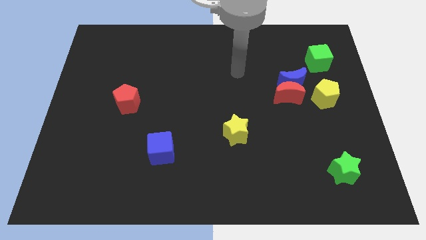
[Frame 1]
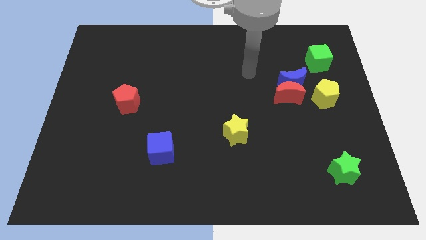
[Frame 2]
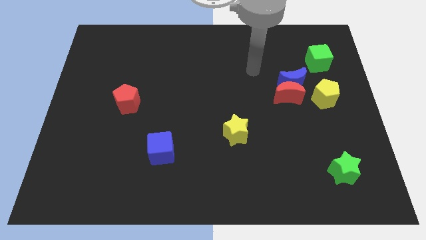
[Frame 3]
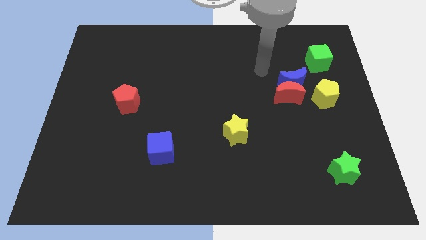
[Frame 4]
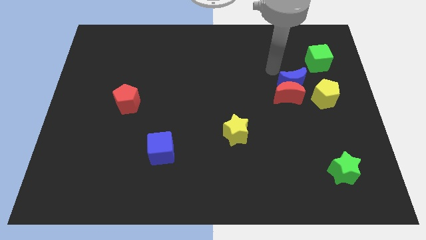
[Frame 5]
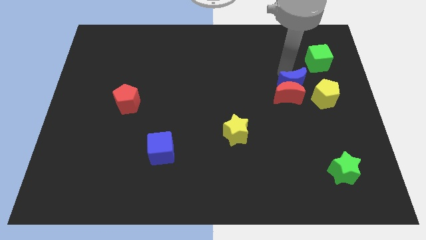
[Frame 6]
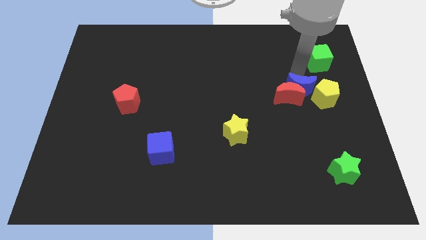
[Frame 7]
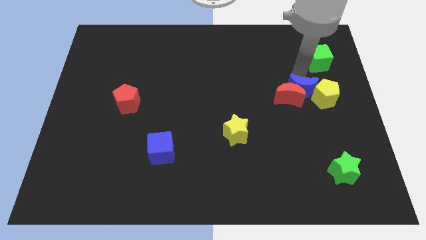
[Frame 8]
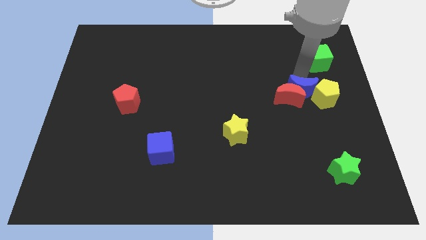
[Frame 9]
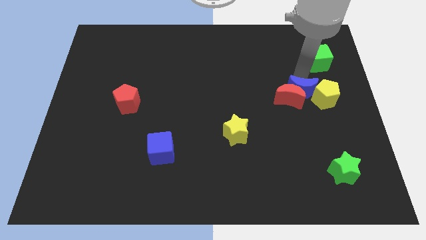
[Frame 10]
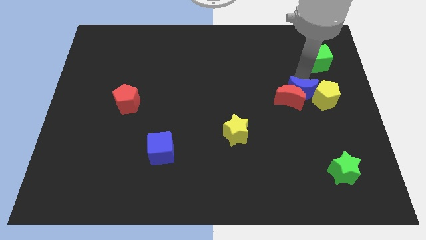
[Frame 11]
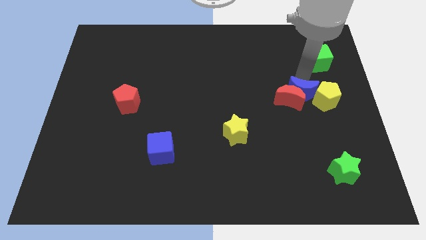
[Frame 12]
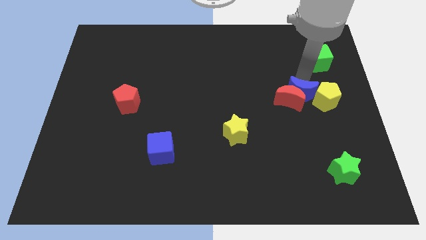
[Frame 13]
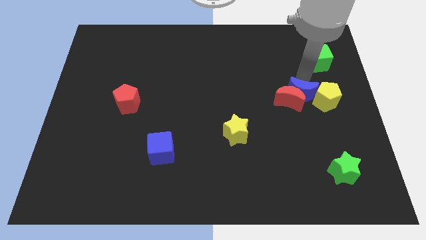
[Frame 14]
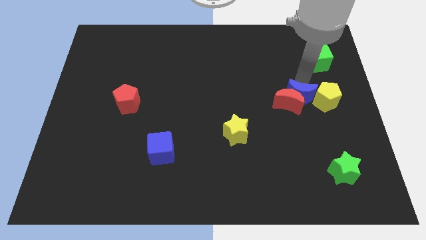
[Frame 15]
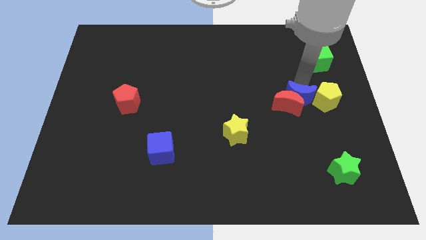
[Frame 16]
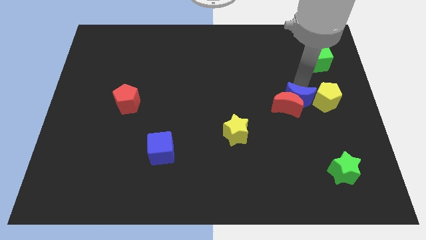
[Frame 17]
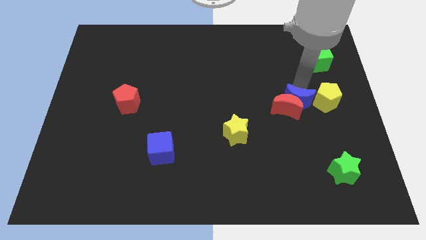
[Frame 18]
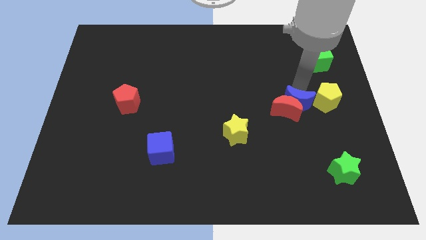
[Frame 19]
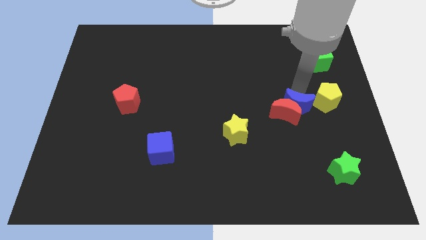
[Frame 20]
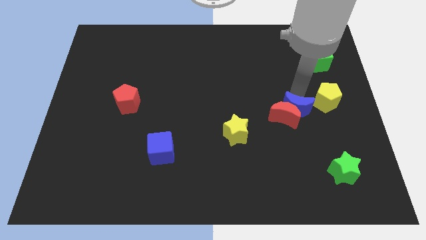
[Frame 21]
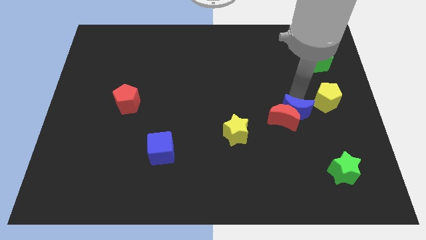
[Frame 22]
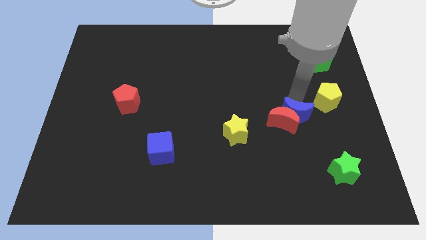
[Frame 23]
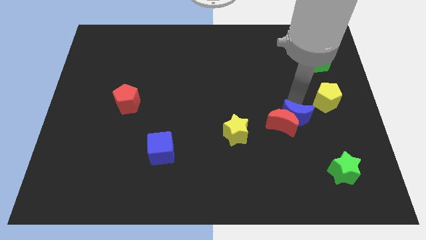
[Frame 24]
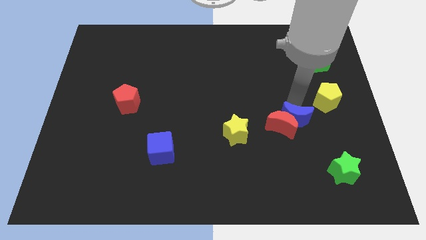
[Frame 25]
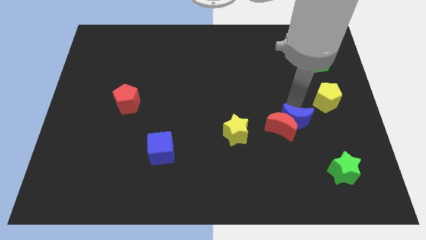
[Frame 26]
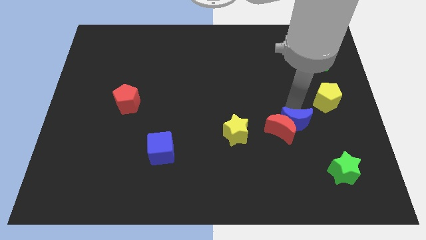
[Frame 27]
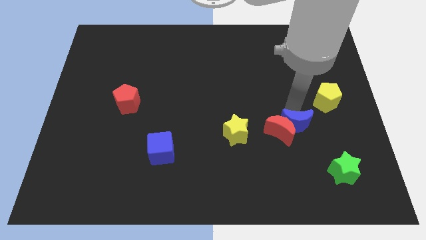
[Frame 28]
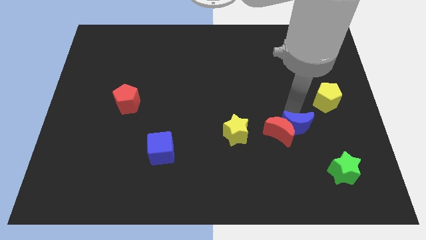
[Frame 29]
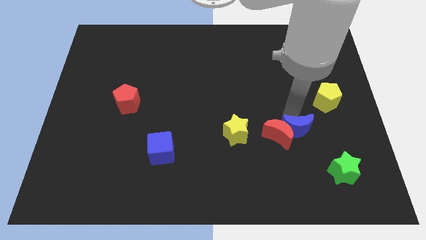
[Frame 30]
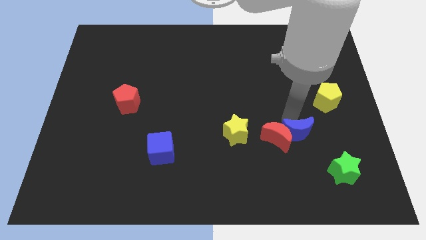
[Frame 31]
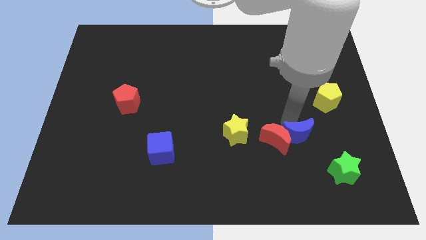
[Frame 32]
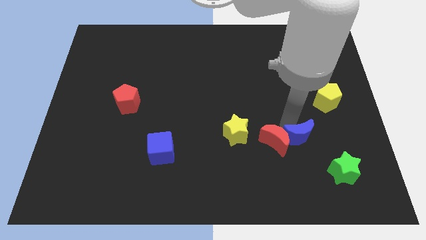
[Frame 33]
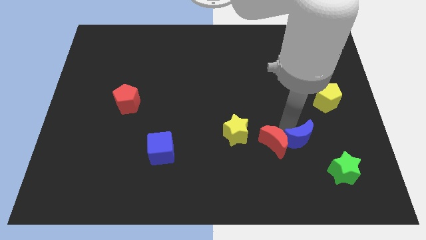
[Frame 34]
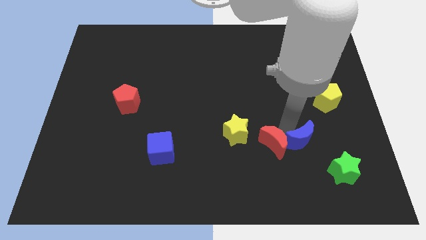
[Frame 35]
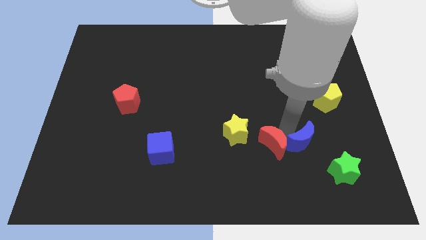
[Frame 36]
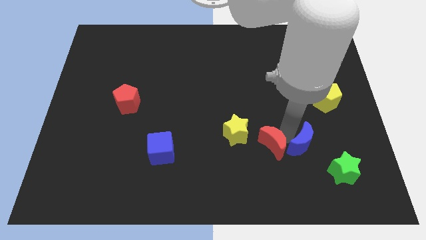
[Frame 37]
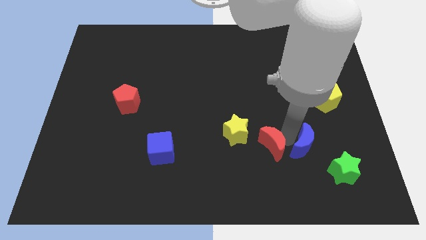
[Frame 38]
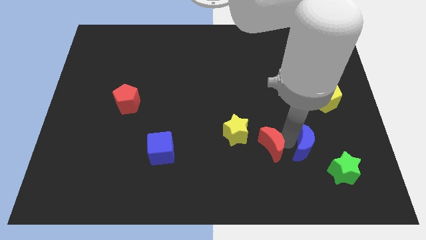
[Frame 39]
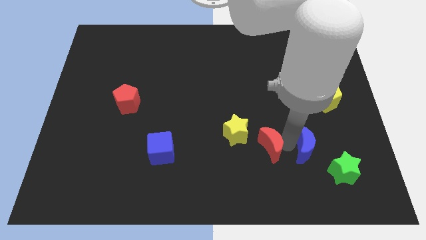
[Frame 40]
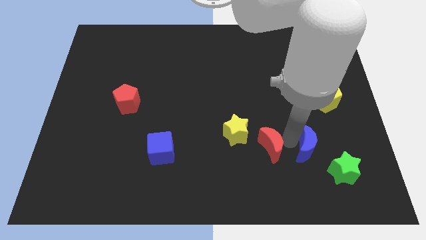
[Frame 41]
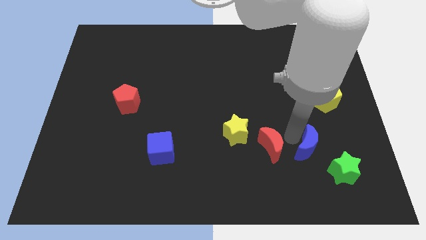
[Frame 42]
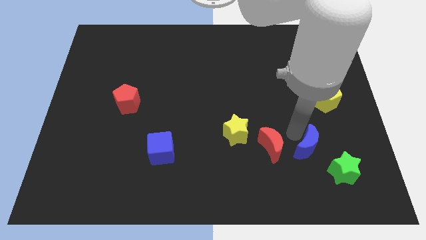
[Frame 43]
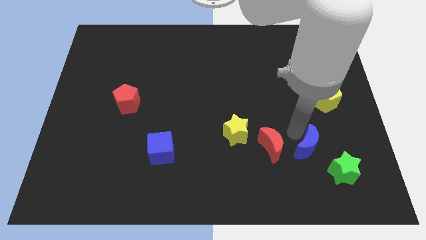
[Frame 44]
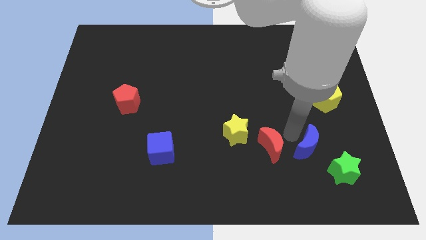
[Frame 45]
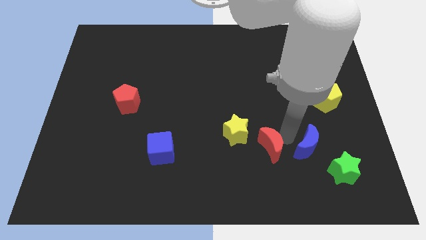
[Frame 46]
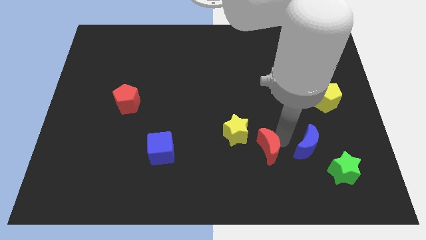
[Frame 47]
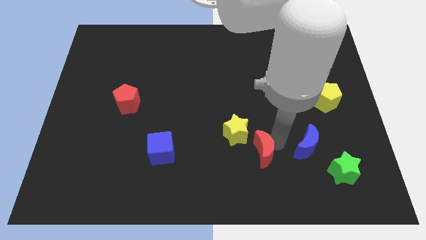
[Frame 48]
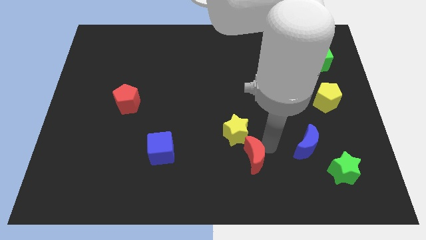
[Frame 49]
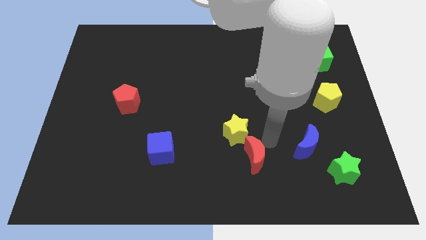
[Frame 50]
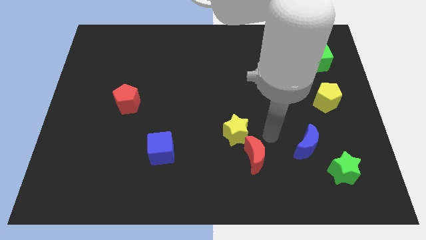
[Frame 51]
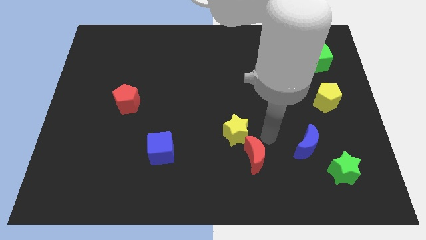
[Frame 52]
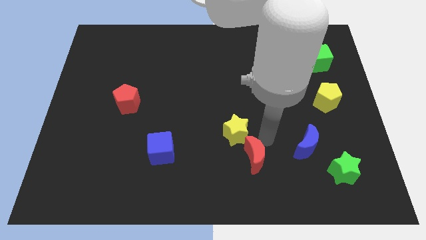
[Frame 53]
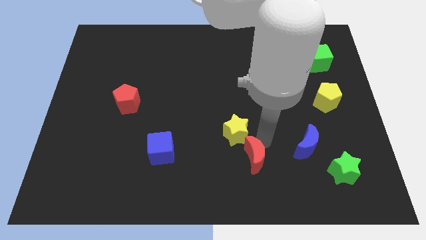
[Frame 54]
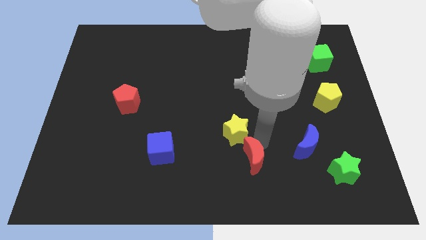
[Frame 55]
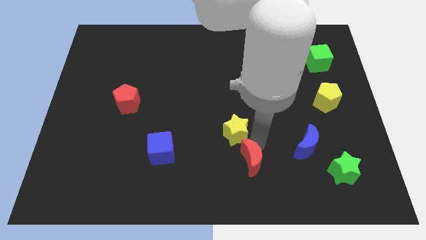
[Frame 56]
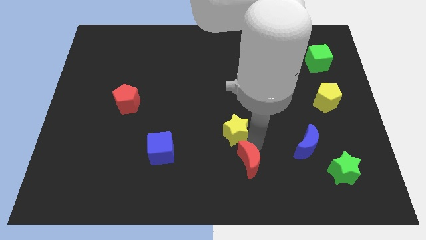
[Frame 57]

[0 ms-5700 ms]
push the red moon to the bottom

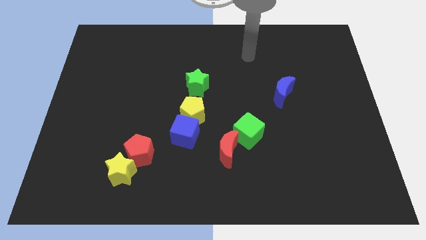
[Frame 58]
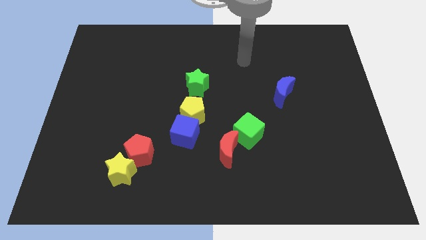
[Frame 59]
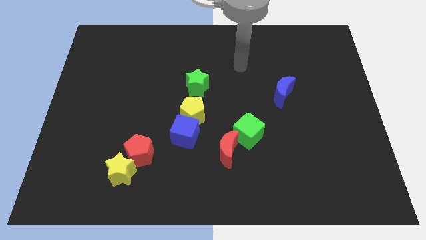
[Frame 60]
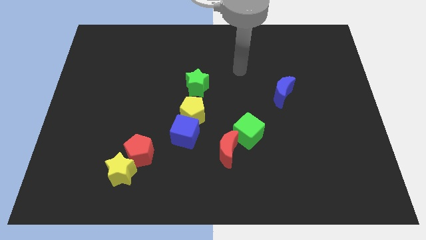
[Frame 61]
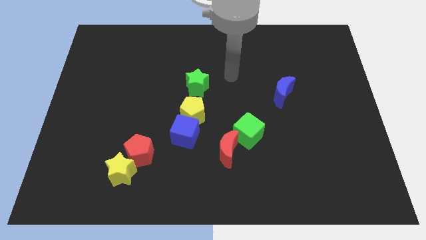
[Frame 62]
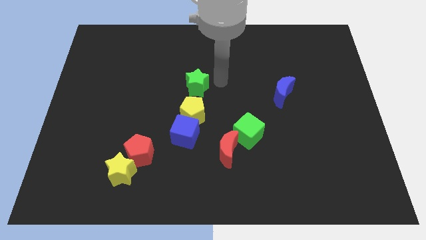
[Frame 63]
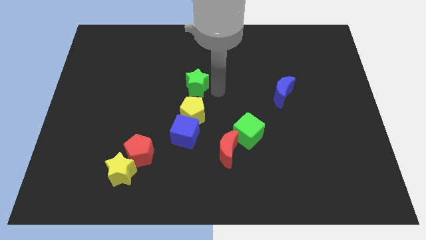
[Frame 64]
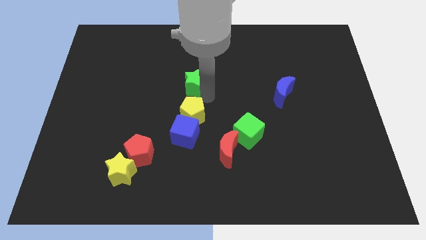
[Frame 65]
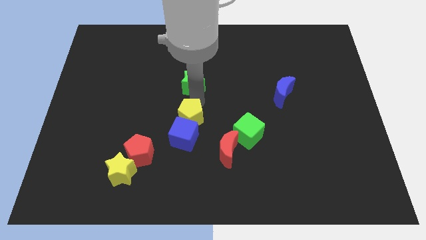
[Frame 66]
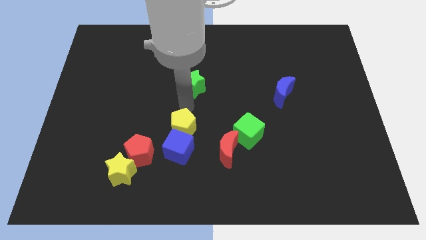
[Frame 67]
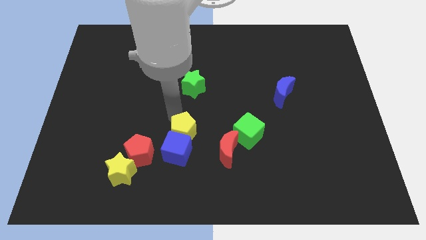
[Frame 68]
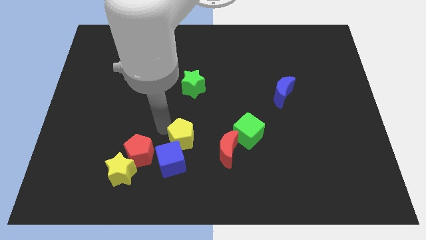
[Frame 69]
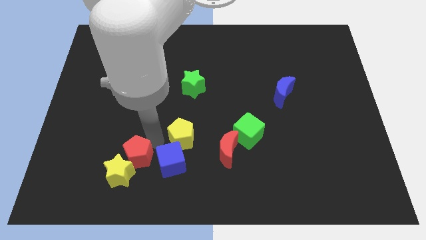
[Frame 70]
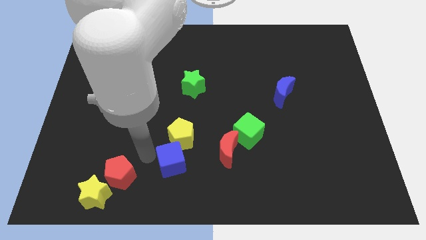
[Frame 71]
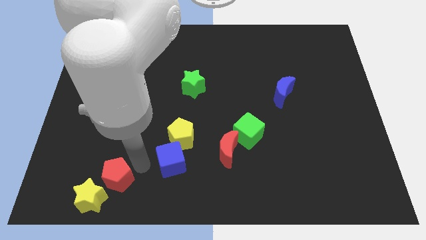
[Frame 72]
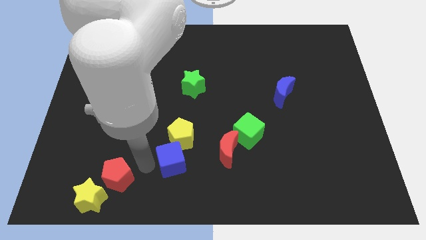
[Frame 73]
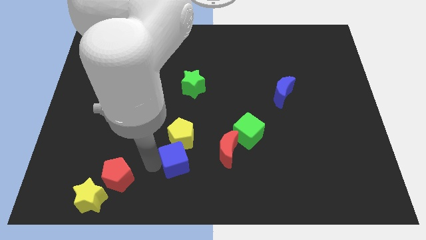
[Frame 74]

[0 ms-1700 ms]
push the blue cube to the bottom side
